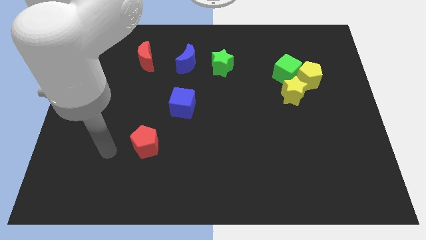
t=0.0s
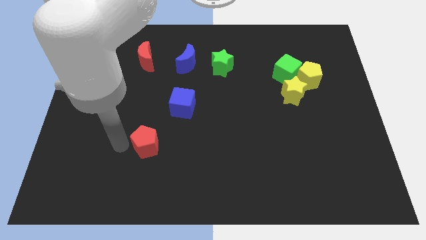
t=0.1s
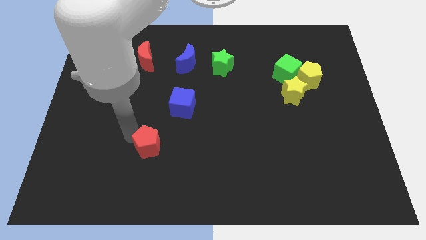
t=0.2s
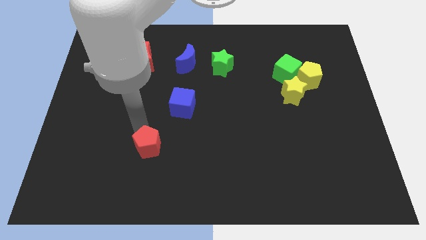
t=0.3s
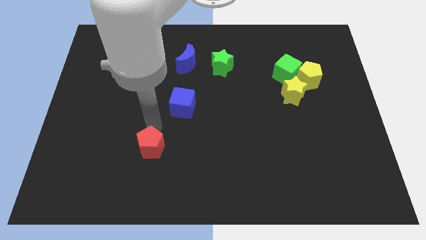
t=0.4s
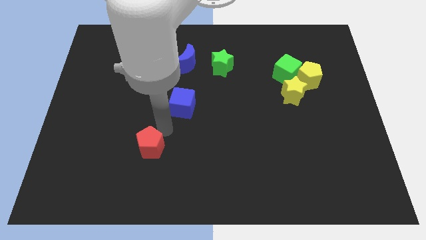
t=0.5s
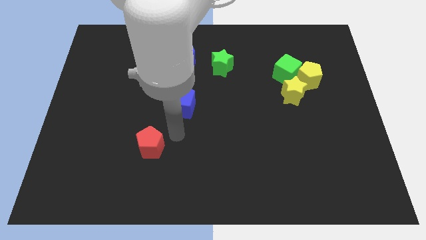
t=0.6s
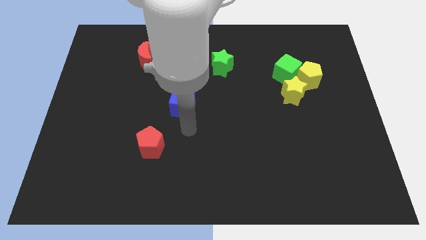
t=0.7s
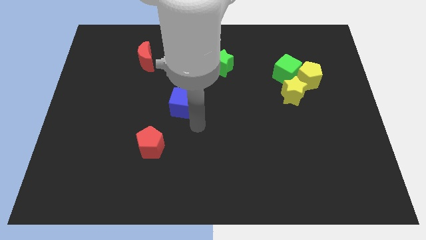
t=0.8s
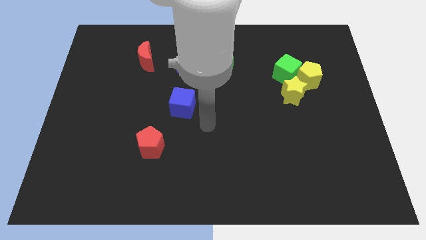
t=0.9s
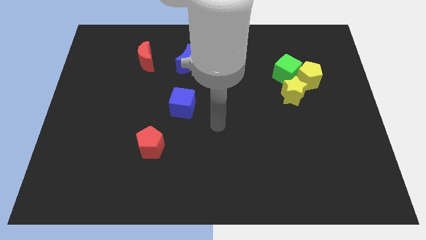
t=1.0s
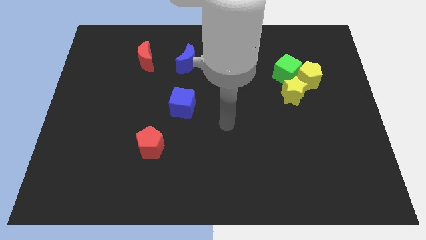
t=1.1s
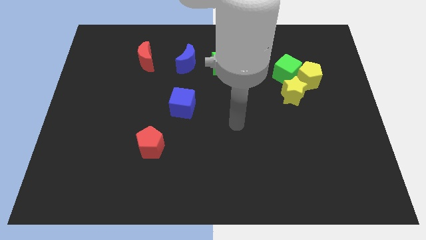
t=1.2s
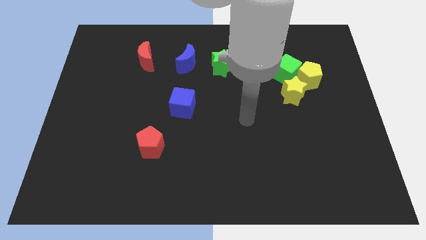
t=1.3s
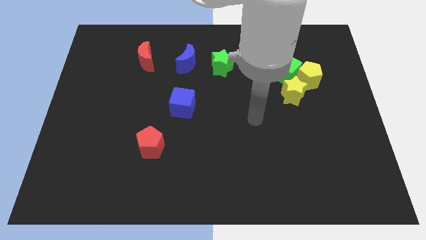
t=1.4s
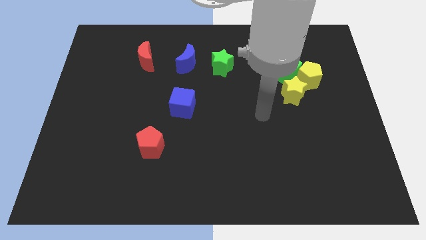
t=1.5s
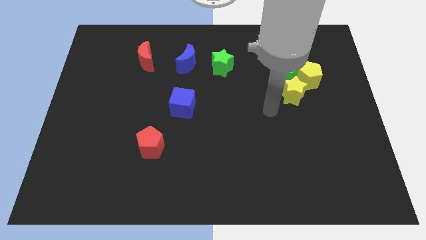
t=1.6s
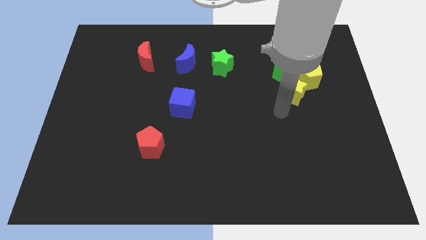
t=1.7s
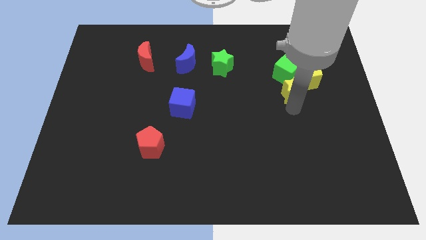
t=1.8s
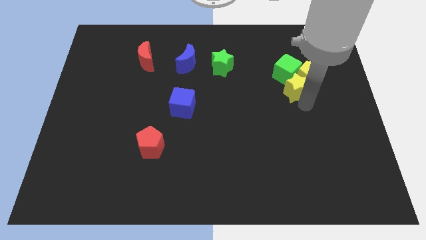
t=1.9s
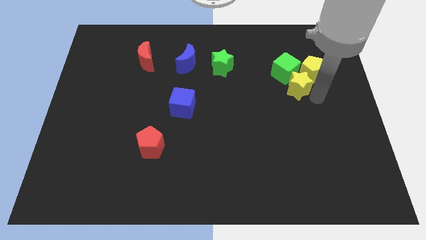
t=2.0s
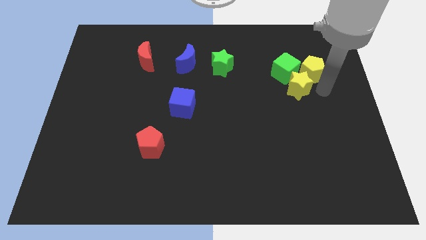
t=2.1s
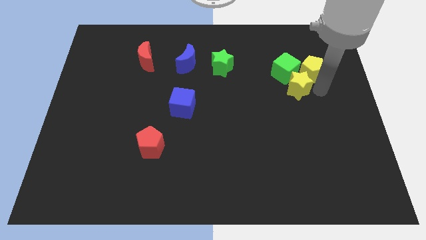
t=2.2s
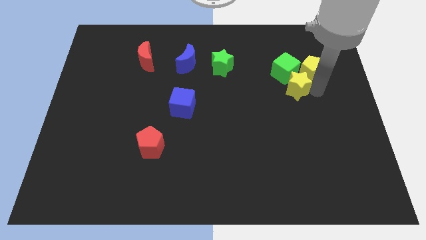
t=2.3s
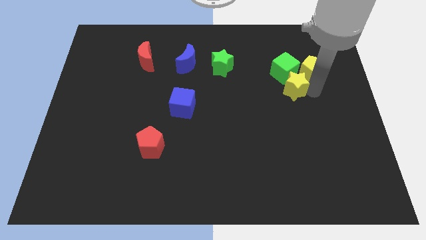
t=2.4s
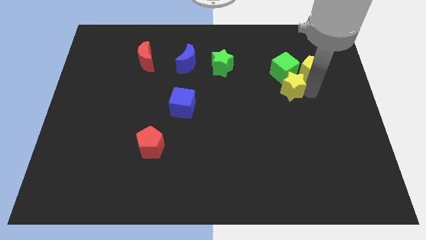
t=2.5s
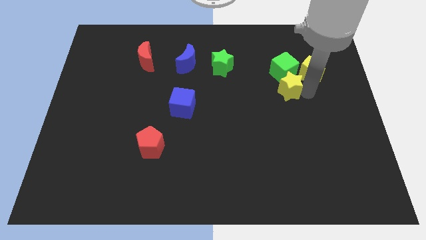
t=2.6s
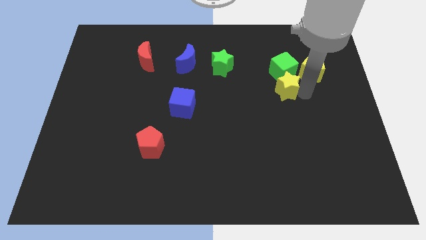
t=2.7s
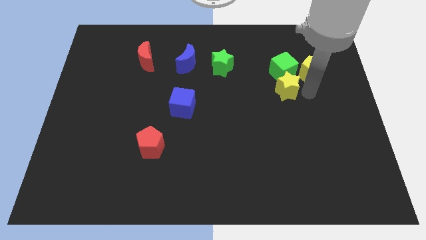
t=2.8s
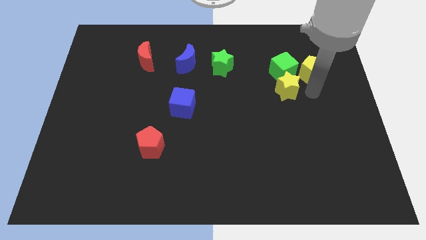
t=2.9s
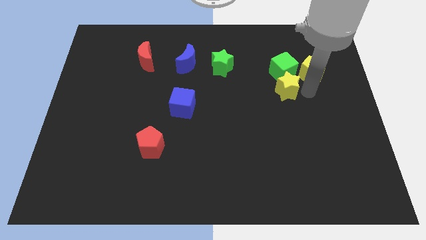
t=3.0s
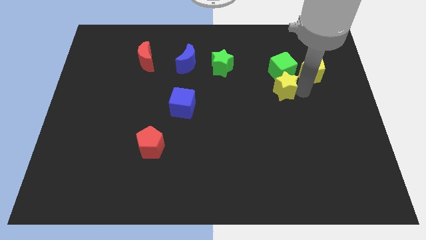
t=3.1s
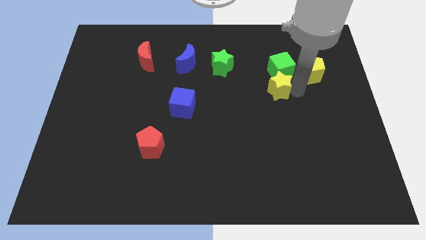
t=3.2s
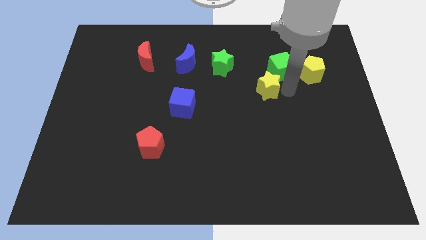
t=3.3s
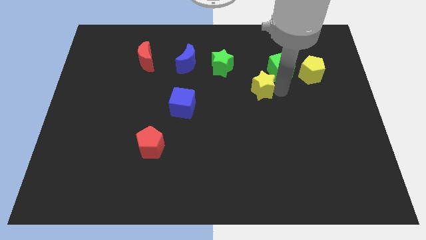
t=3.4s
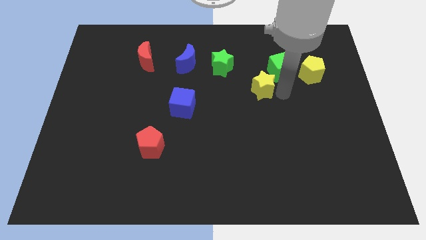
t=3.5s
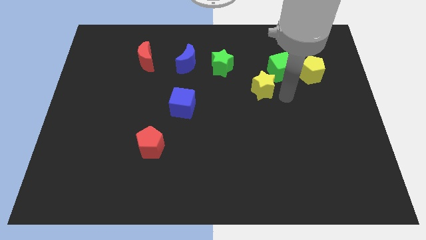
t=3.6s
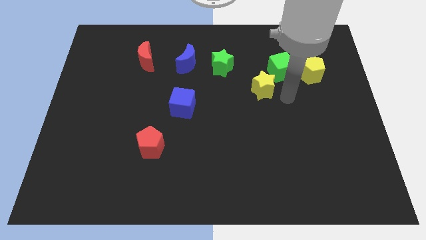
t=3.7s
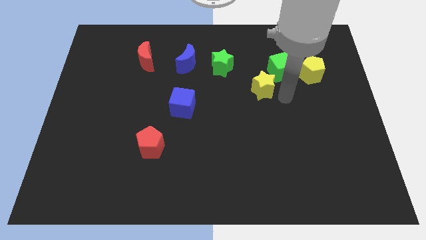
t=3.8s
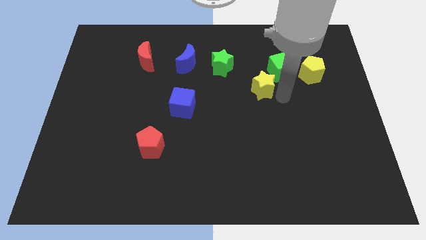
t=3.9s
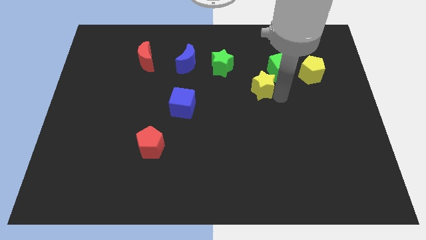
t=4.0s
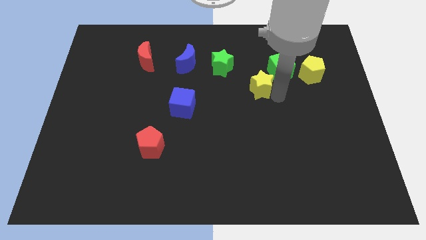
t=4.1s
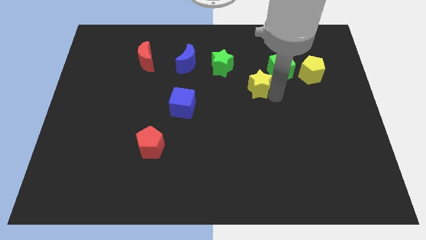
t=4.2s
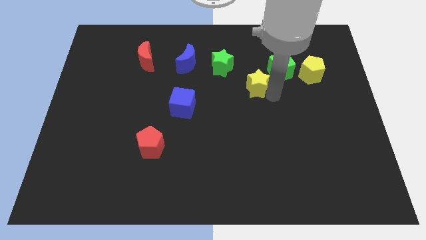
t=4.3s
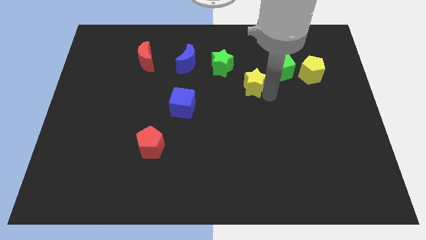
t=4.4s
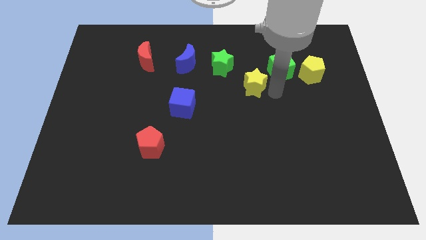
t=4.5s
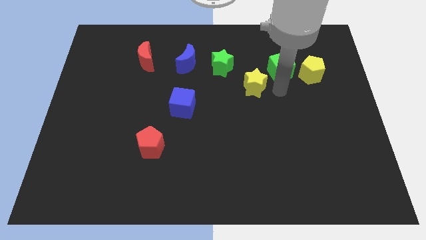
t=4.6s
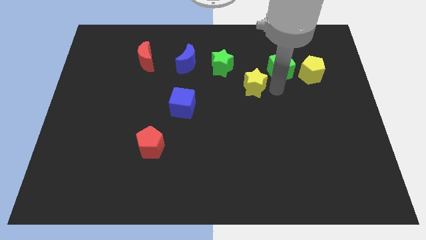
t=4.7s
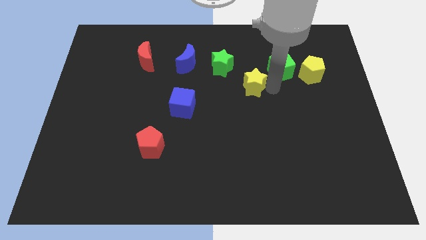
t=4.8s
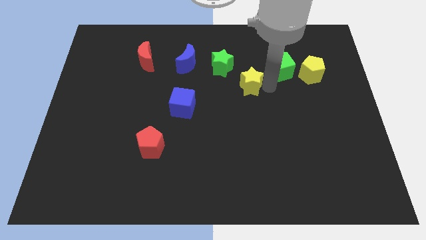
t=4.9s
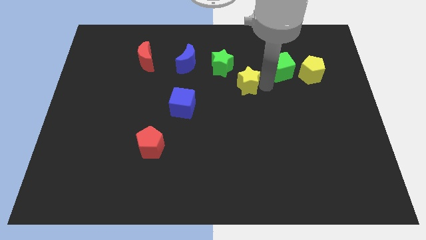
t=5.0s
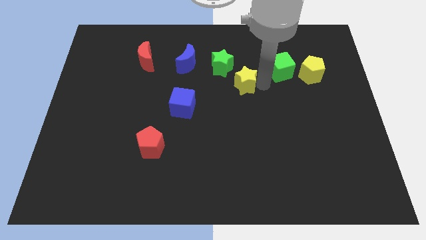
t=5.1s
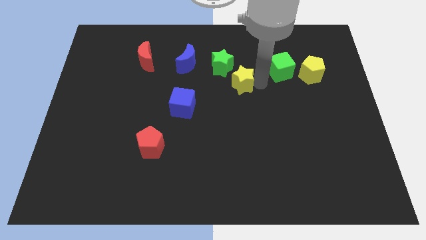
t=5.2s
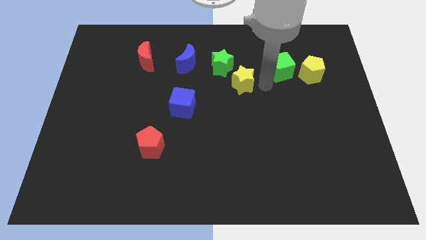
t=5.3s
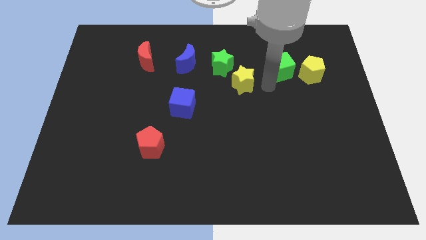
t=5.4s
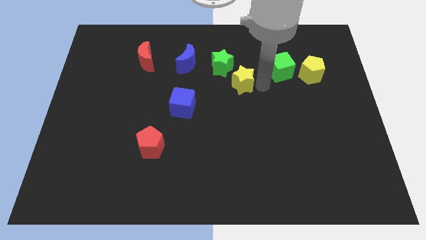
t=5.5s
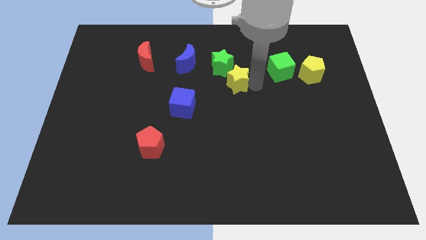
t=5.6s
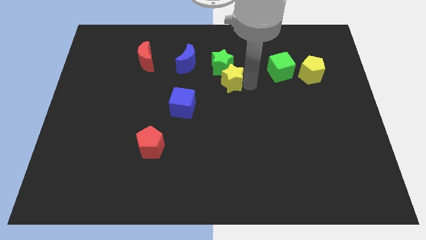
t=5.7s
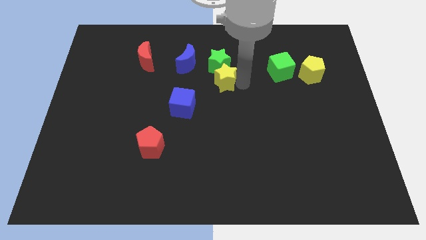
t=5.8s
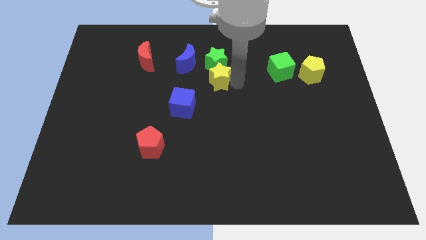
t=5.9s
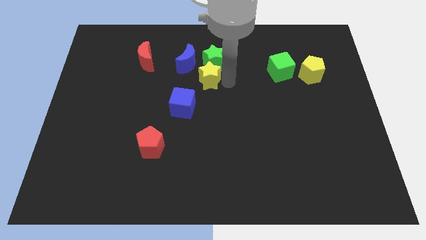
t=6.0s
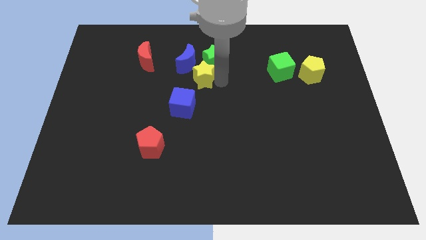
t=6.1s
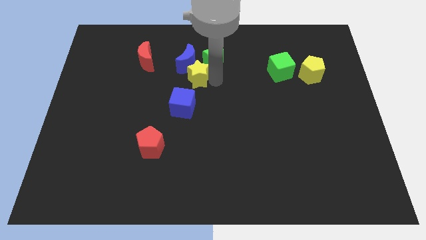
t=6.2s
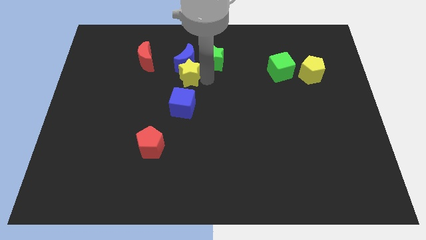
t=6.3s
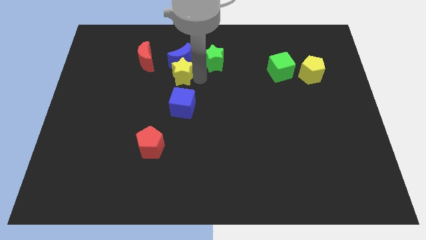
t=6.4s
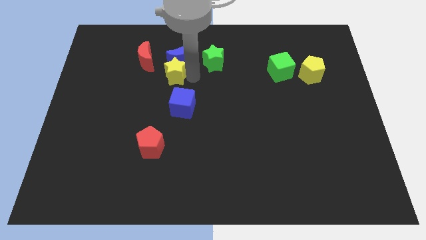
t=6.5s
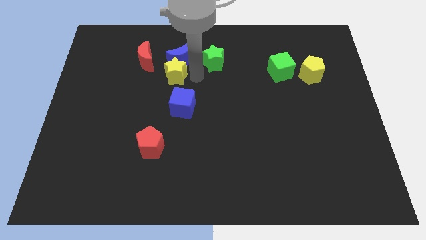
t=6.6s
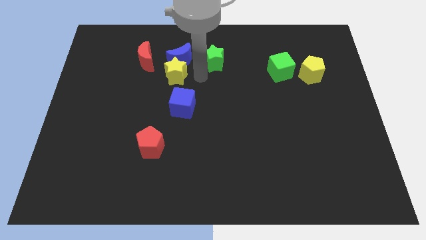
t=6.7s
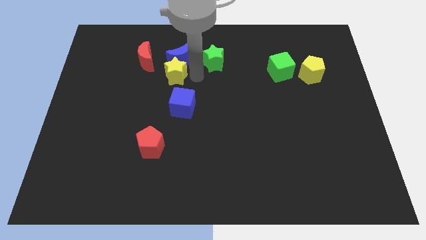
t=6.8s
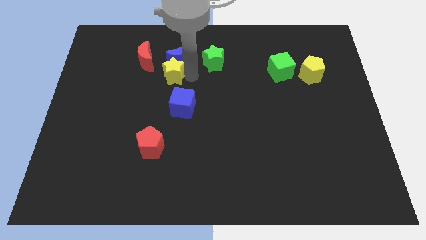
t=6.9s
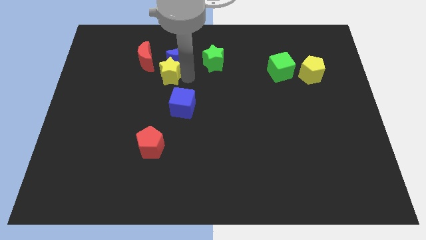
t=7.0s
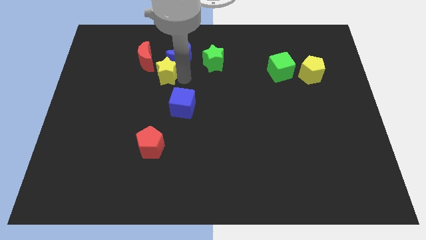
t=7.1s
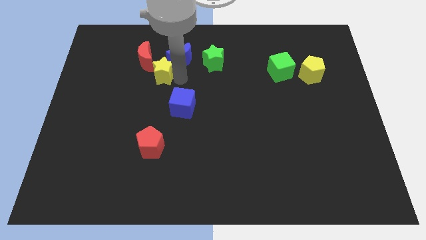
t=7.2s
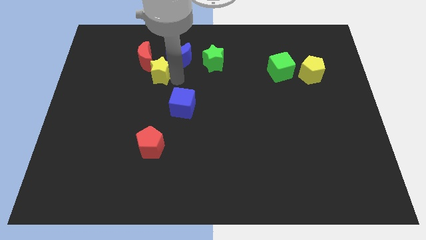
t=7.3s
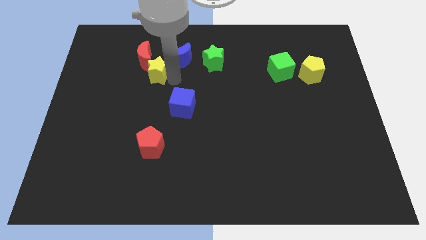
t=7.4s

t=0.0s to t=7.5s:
push the yellow star next to the red moon
